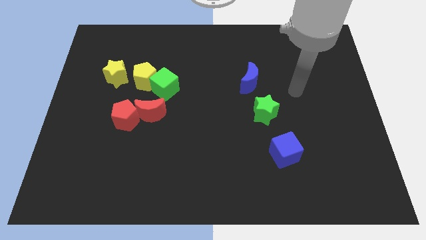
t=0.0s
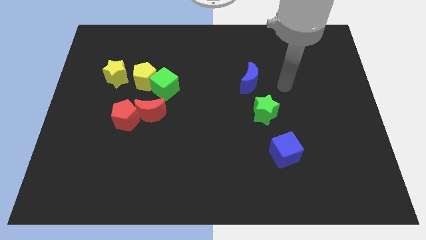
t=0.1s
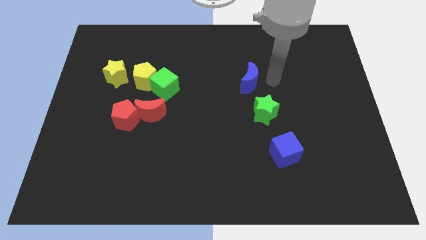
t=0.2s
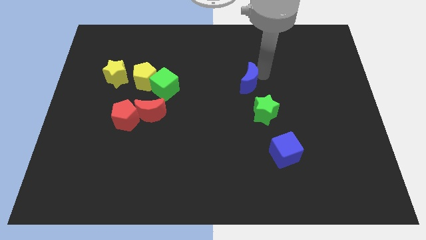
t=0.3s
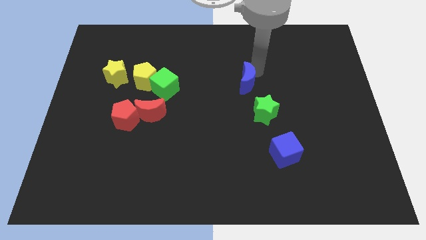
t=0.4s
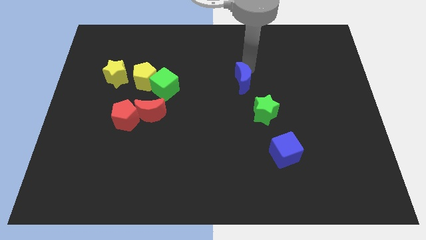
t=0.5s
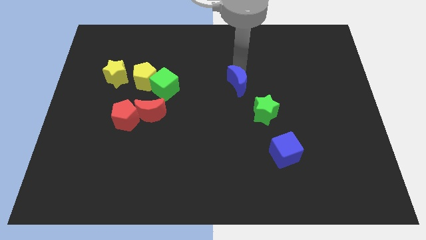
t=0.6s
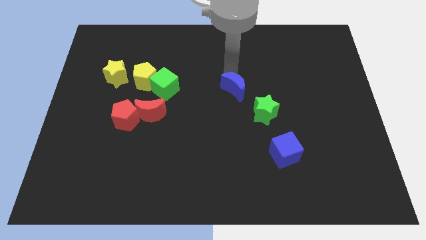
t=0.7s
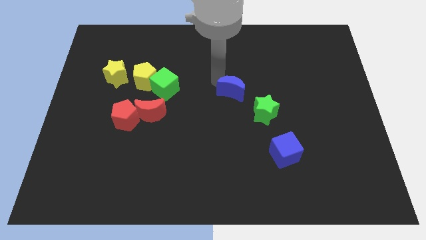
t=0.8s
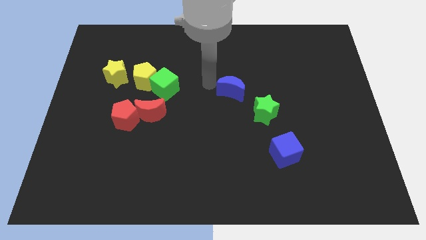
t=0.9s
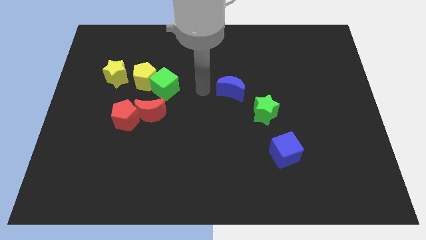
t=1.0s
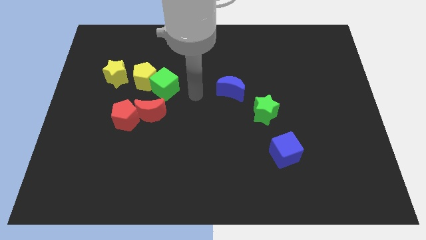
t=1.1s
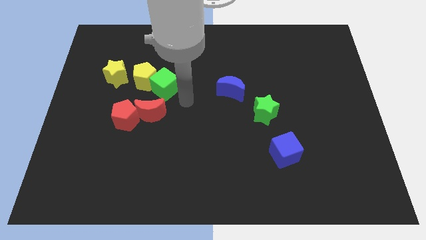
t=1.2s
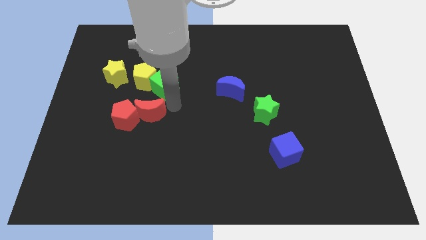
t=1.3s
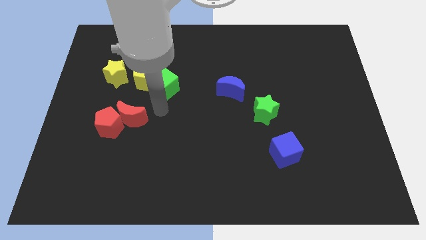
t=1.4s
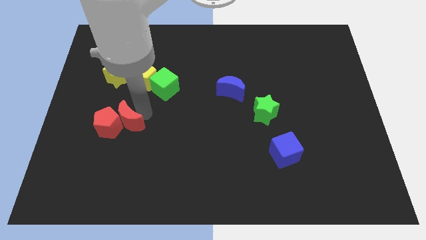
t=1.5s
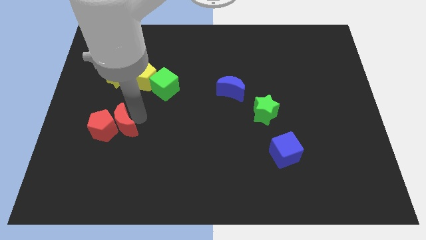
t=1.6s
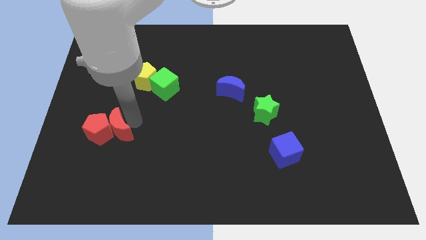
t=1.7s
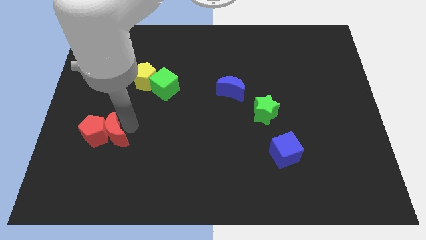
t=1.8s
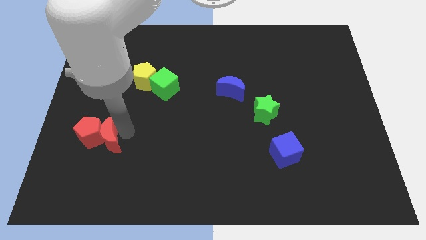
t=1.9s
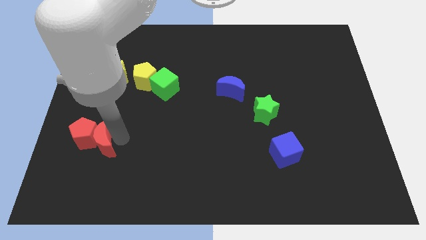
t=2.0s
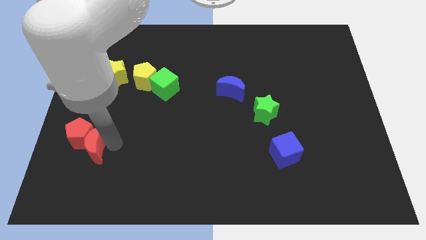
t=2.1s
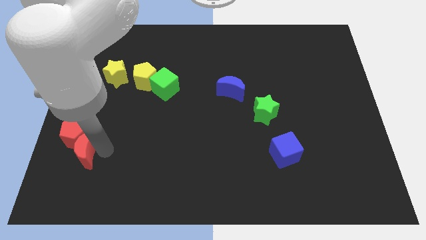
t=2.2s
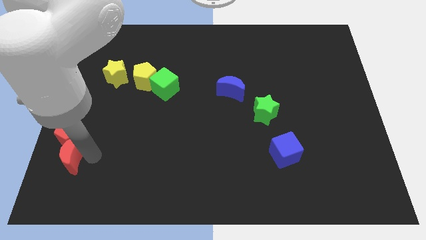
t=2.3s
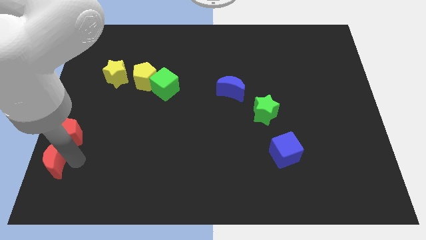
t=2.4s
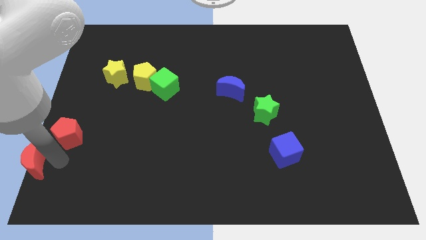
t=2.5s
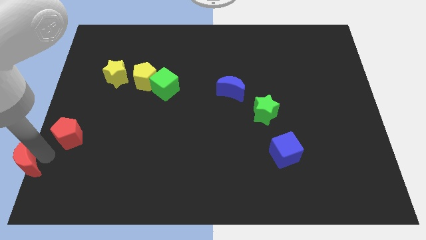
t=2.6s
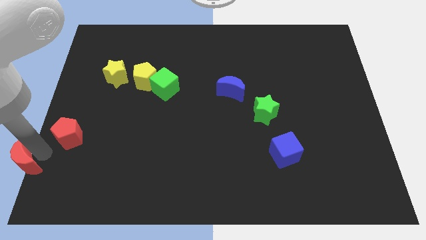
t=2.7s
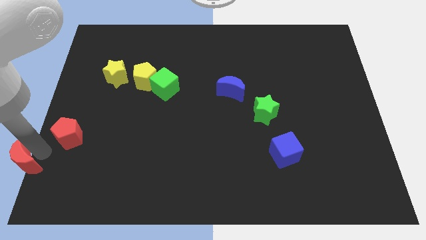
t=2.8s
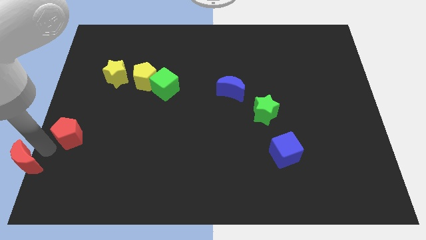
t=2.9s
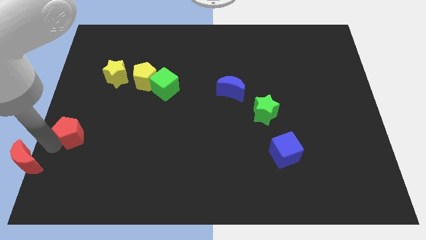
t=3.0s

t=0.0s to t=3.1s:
separate the red pentagon from the red moon

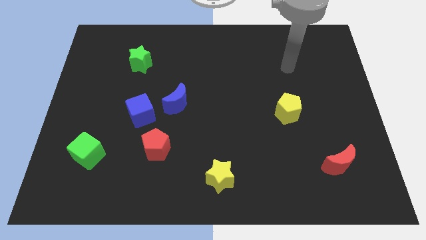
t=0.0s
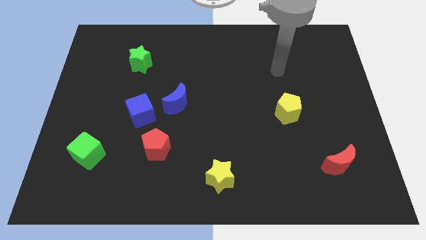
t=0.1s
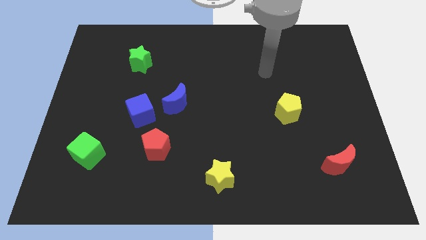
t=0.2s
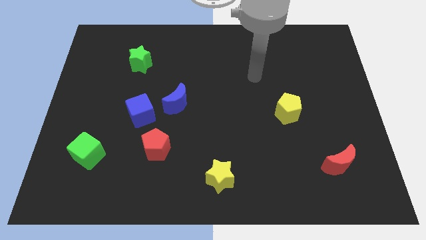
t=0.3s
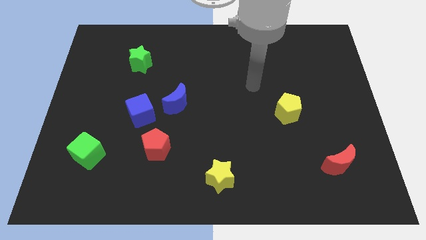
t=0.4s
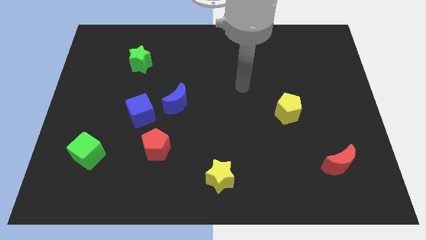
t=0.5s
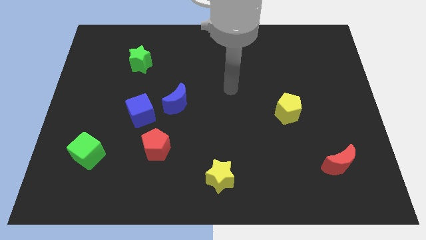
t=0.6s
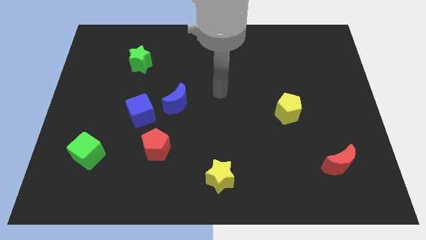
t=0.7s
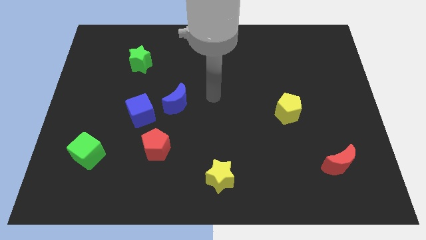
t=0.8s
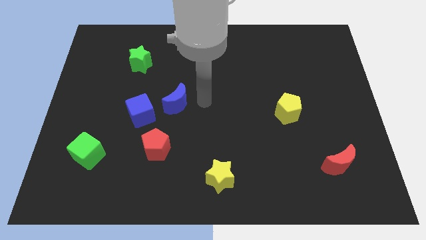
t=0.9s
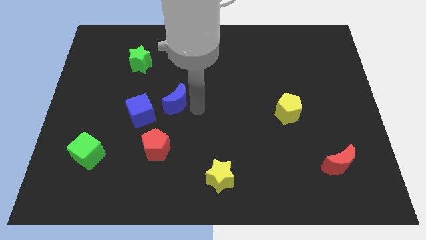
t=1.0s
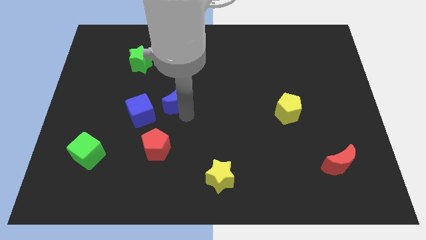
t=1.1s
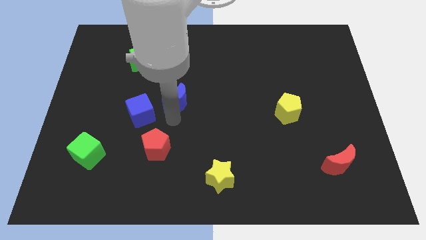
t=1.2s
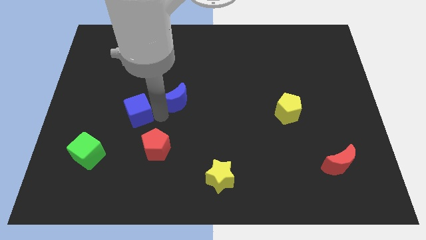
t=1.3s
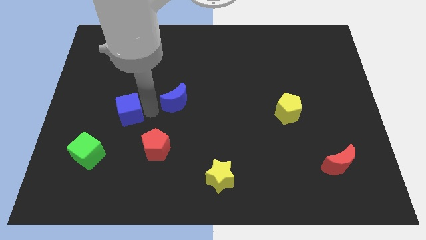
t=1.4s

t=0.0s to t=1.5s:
separate the blue moon from the blue cube

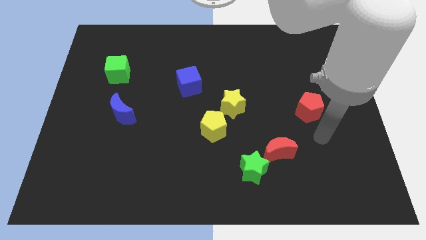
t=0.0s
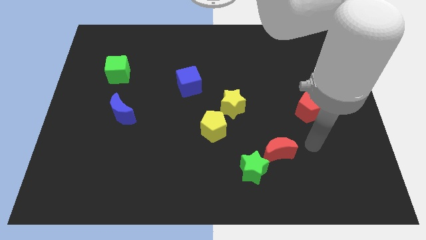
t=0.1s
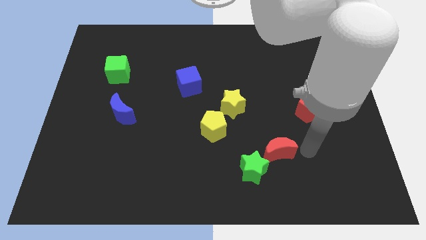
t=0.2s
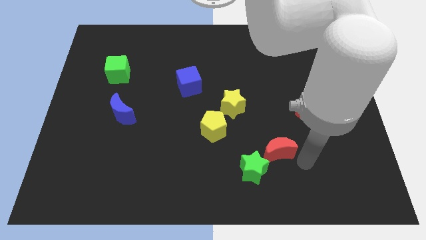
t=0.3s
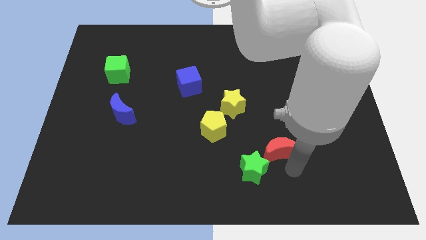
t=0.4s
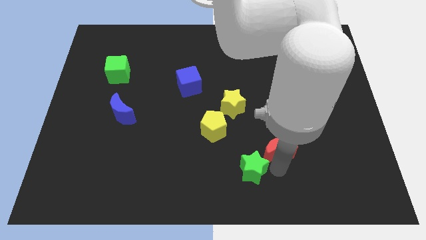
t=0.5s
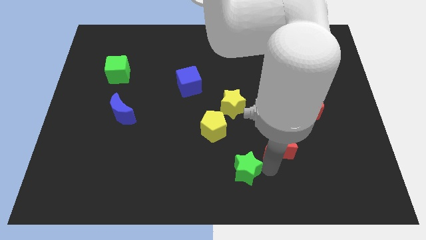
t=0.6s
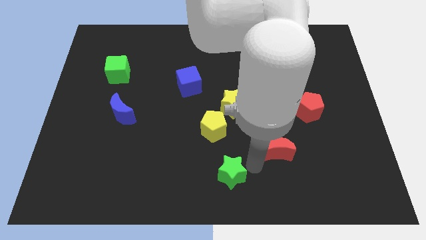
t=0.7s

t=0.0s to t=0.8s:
move the red moon away from the green star

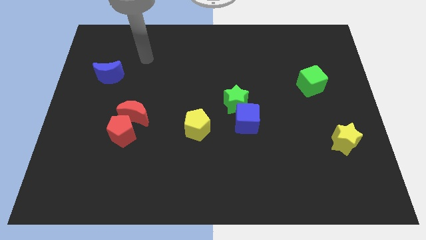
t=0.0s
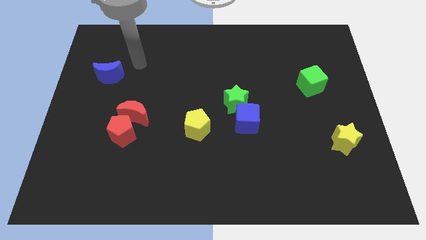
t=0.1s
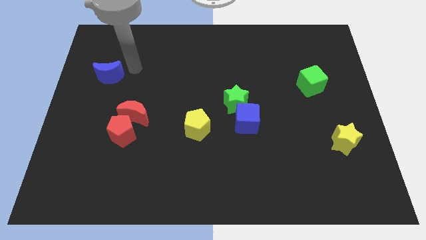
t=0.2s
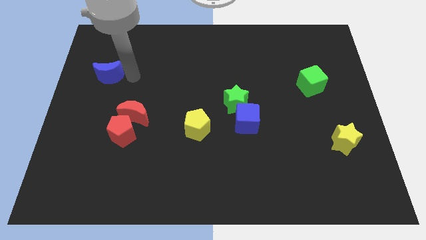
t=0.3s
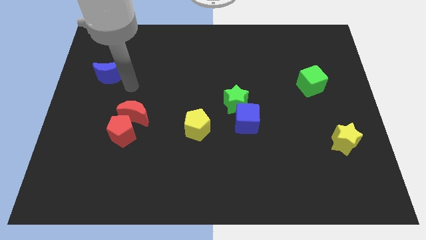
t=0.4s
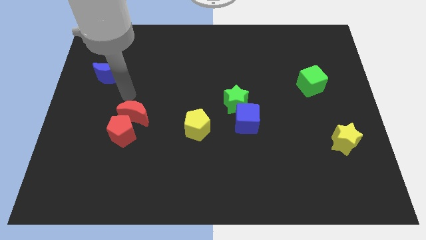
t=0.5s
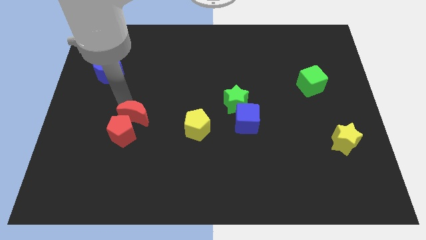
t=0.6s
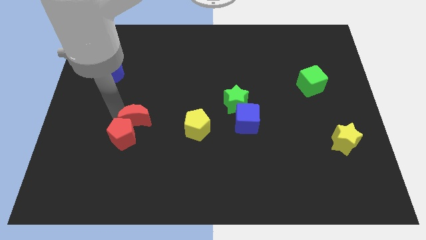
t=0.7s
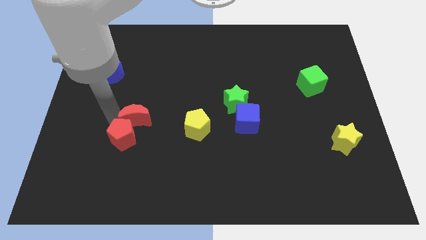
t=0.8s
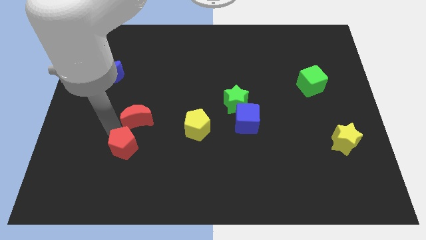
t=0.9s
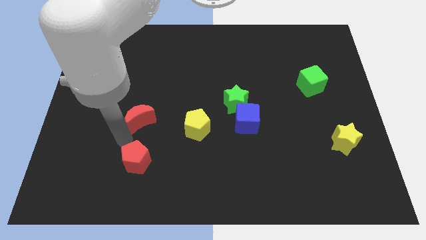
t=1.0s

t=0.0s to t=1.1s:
pull the red moon apart from the red pentagon

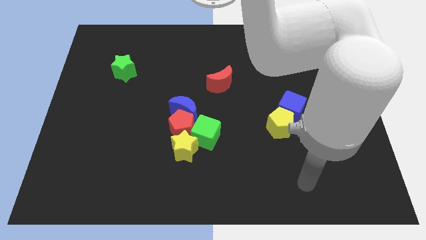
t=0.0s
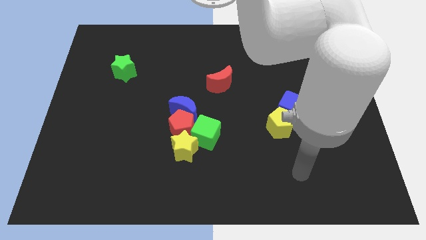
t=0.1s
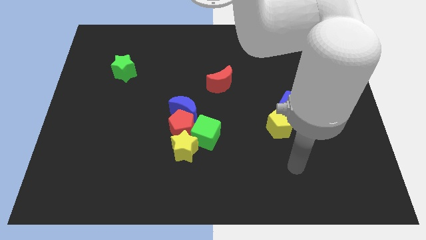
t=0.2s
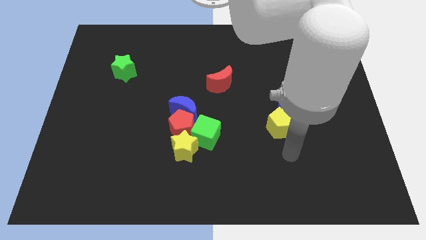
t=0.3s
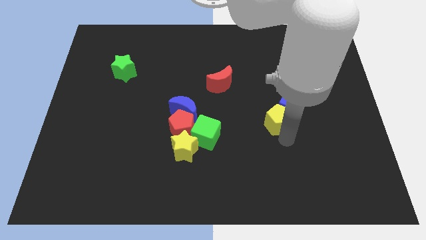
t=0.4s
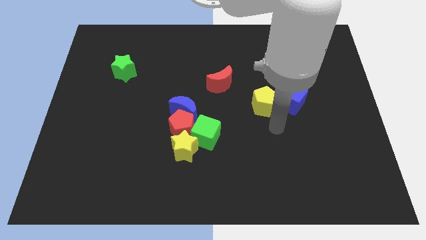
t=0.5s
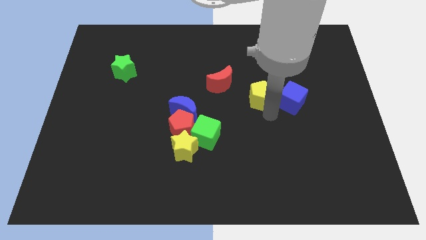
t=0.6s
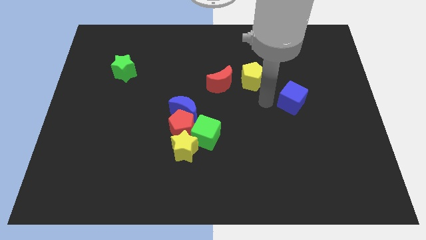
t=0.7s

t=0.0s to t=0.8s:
separate the blue cube from the yellow pentagon

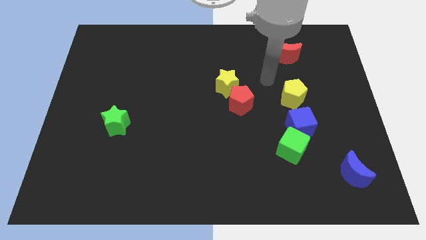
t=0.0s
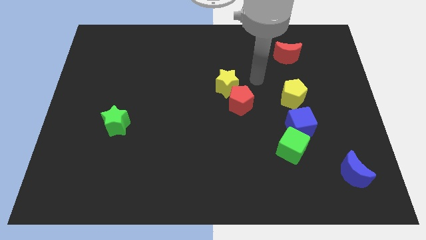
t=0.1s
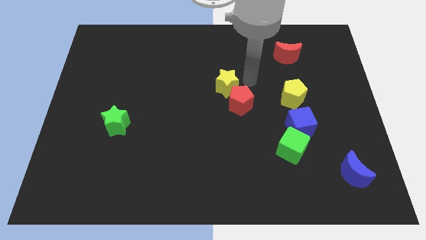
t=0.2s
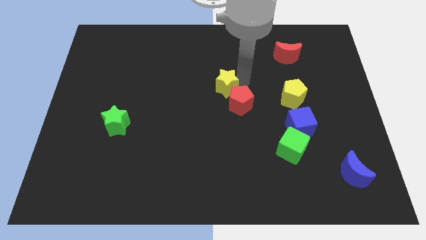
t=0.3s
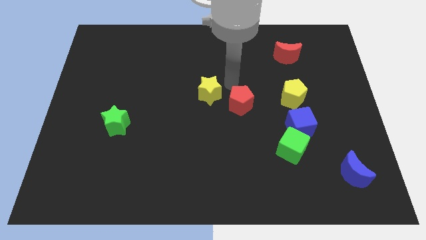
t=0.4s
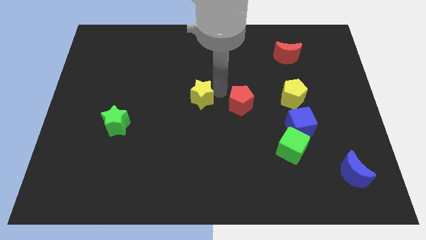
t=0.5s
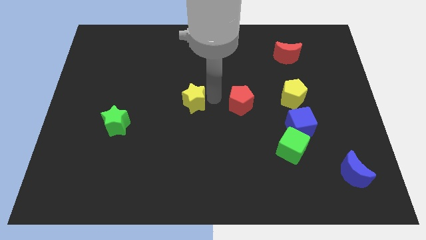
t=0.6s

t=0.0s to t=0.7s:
move the red pentagon away from the yellow star

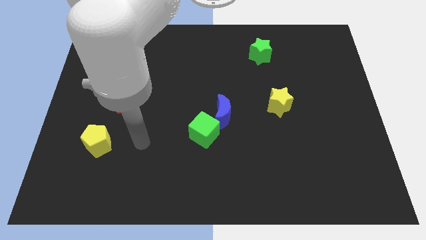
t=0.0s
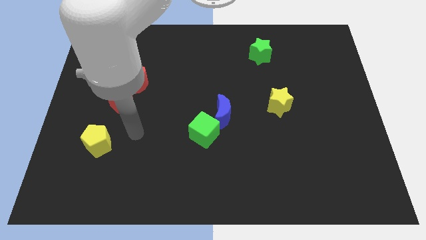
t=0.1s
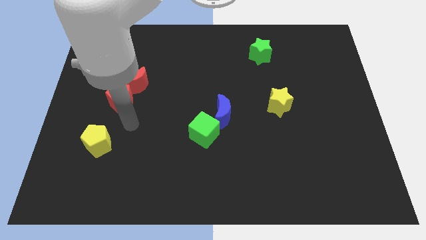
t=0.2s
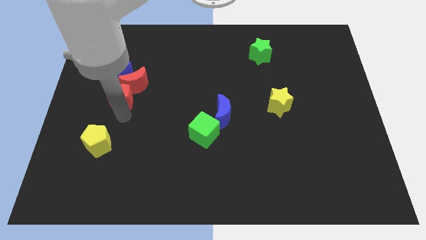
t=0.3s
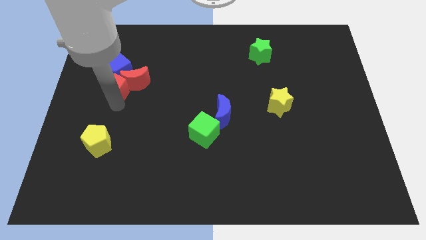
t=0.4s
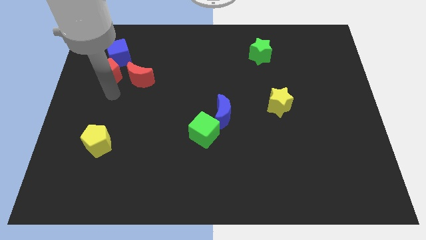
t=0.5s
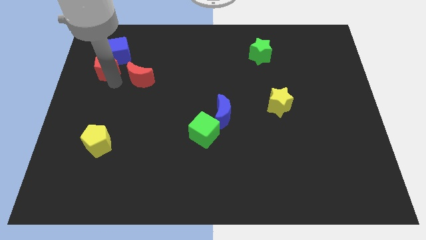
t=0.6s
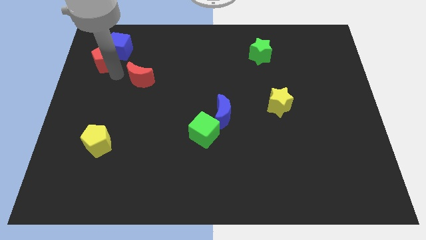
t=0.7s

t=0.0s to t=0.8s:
pull the red moon apart from the red pentagon and blue cube

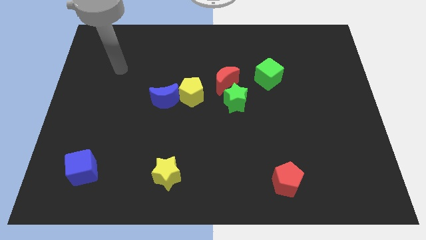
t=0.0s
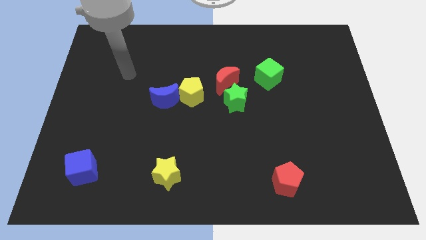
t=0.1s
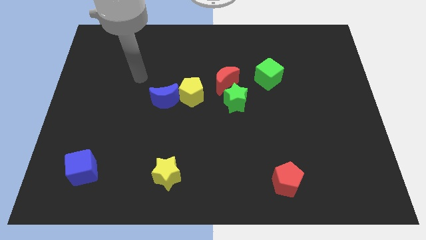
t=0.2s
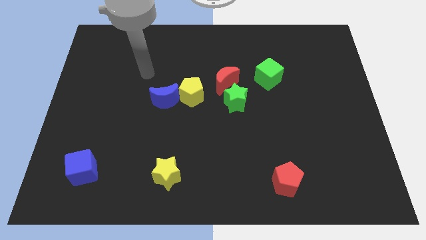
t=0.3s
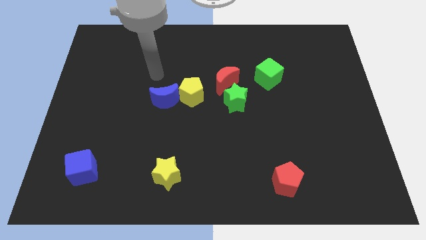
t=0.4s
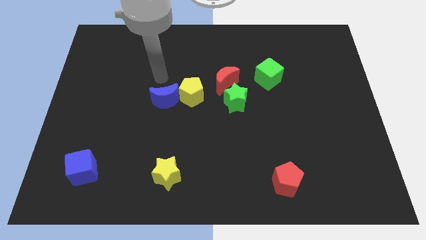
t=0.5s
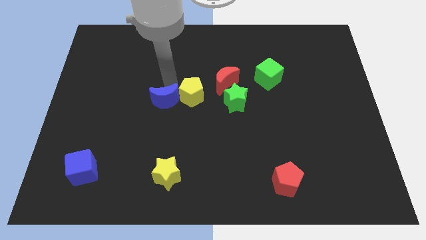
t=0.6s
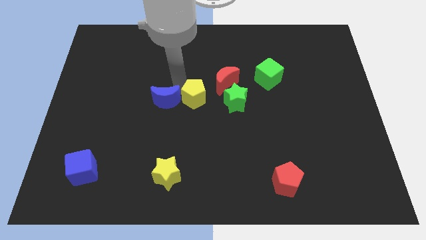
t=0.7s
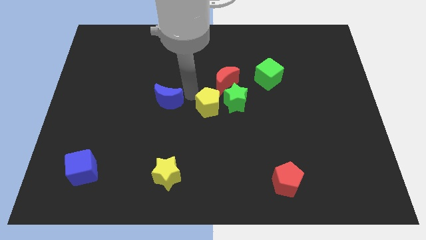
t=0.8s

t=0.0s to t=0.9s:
move the blue moon away from the yellow pentagon
